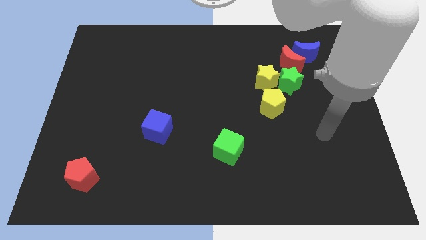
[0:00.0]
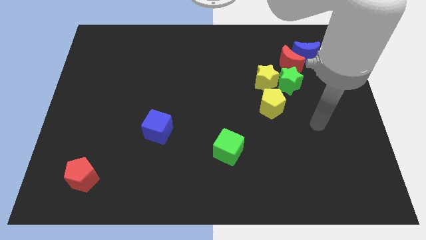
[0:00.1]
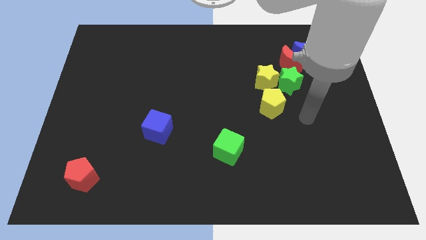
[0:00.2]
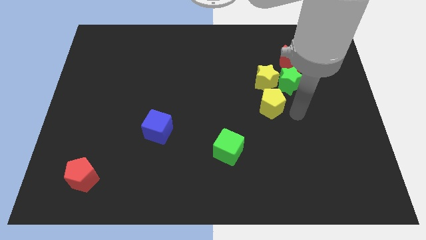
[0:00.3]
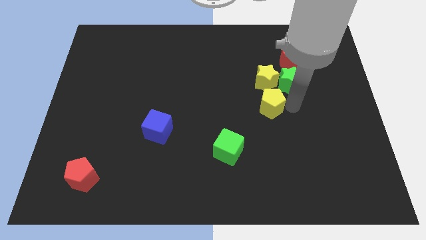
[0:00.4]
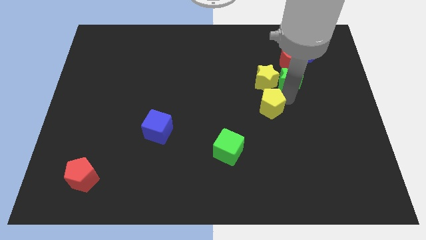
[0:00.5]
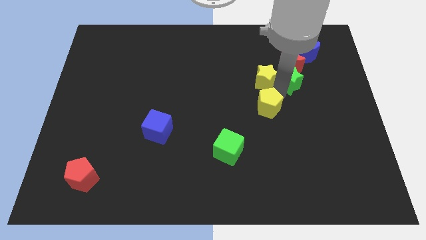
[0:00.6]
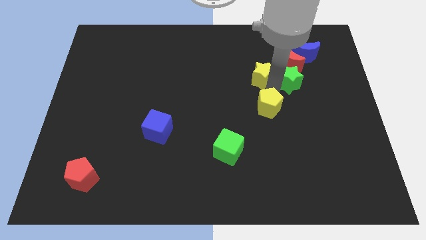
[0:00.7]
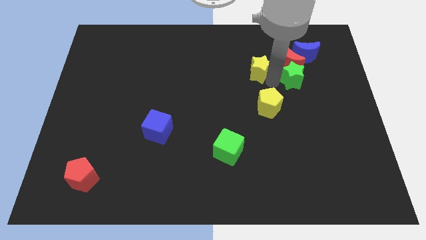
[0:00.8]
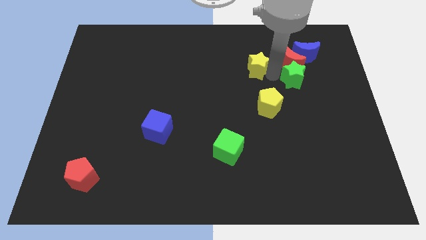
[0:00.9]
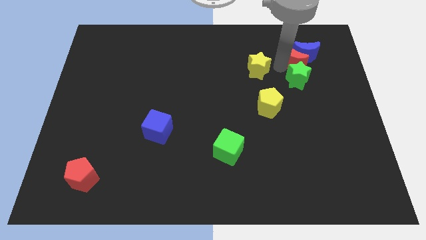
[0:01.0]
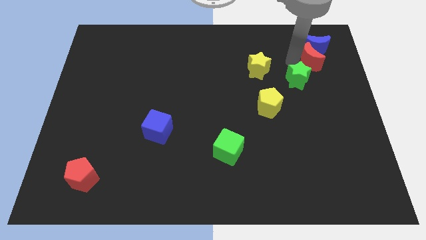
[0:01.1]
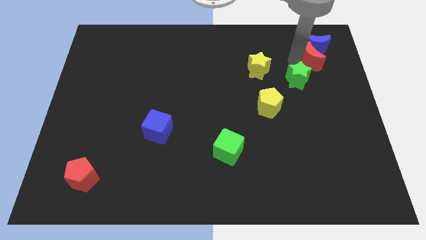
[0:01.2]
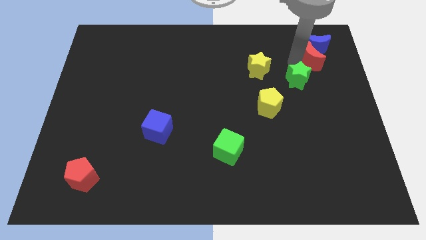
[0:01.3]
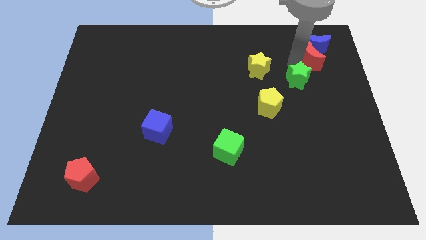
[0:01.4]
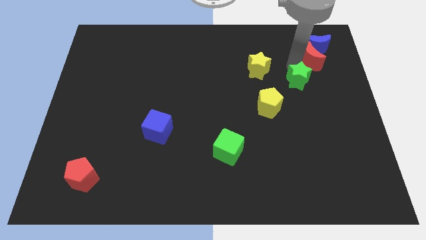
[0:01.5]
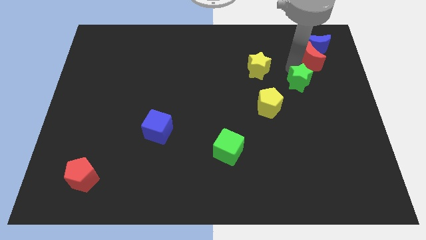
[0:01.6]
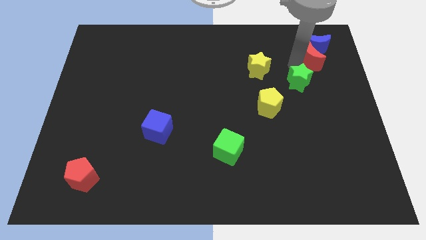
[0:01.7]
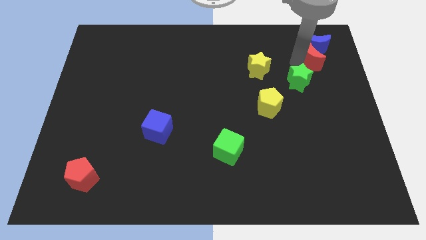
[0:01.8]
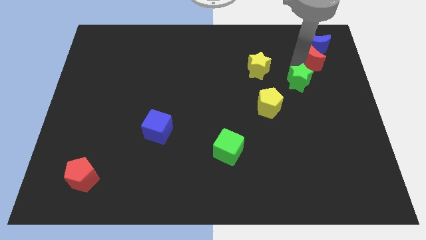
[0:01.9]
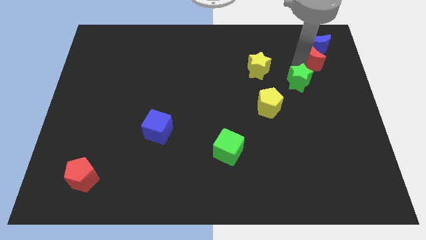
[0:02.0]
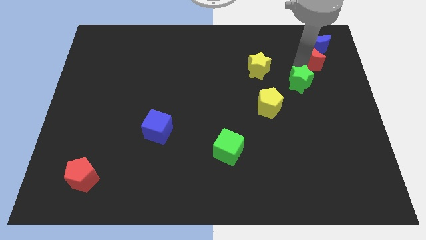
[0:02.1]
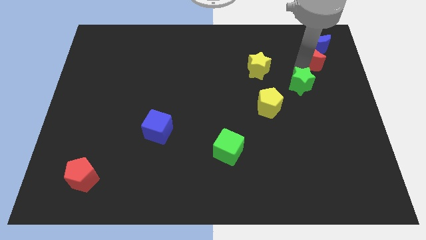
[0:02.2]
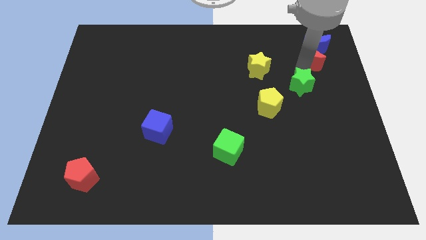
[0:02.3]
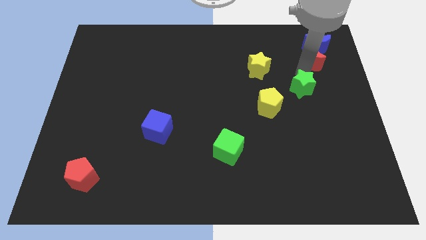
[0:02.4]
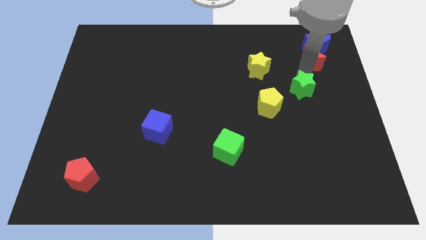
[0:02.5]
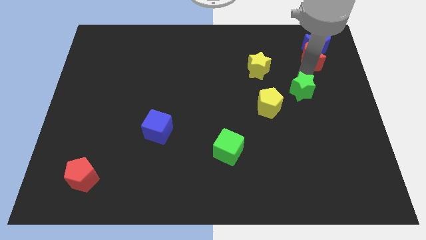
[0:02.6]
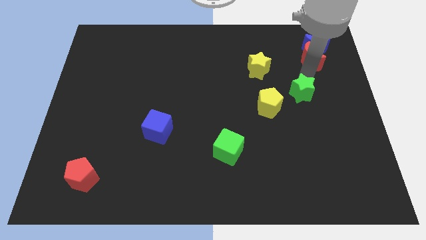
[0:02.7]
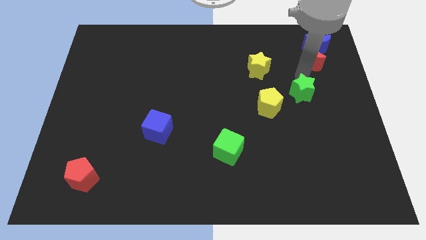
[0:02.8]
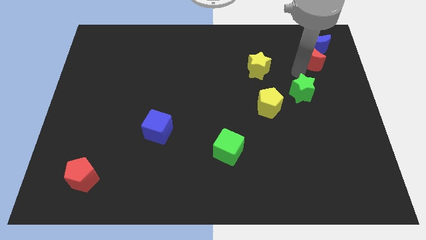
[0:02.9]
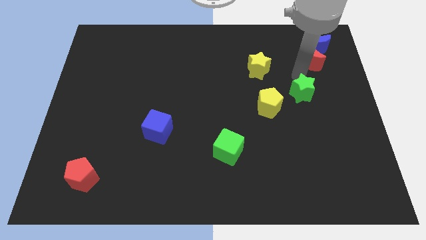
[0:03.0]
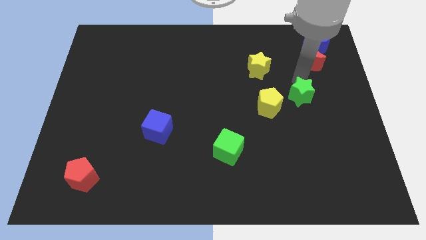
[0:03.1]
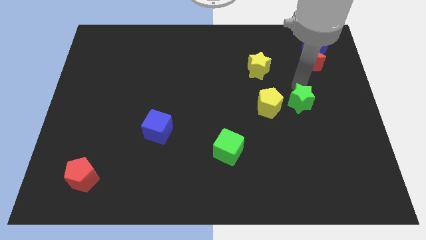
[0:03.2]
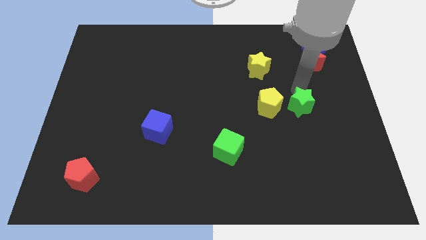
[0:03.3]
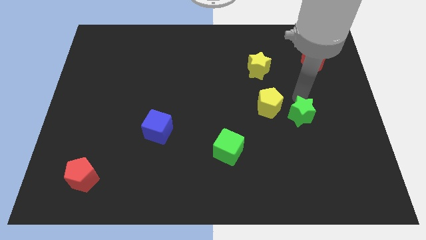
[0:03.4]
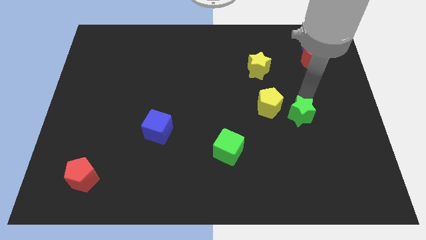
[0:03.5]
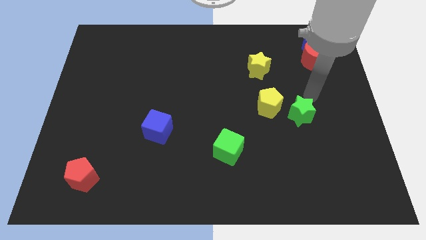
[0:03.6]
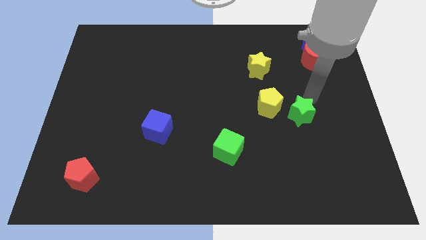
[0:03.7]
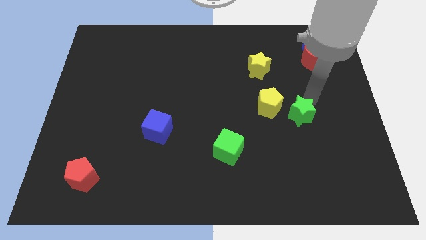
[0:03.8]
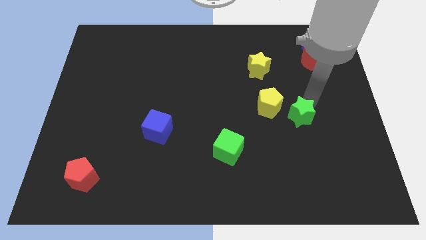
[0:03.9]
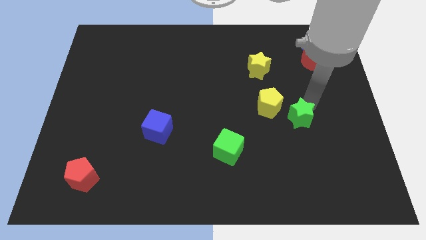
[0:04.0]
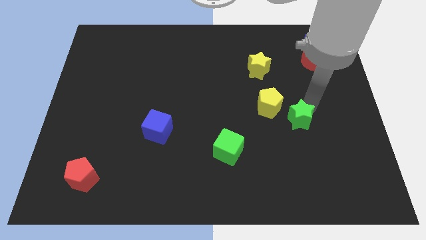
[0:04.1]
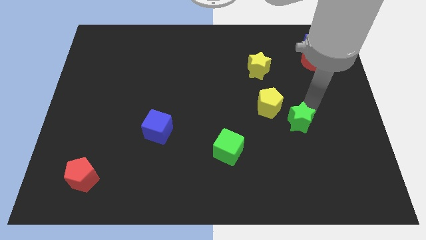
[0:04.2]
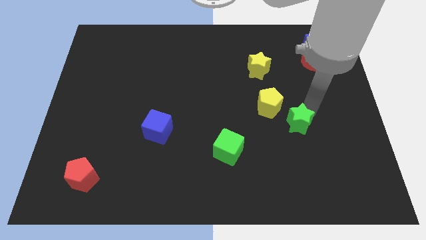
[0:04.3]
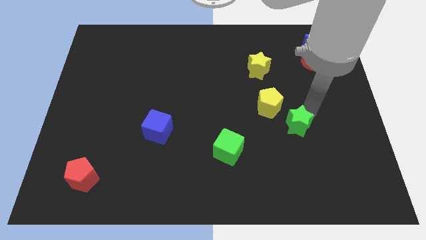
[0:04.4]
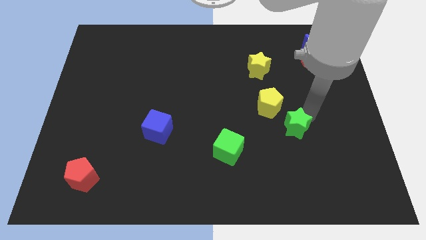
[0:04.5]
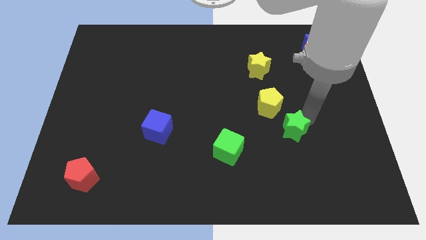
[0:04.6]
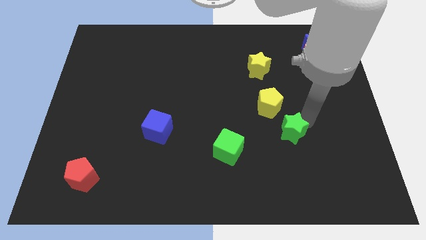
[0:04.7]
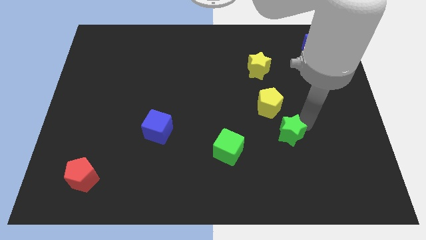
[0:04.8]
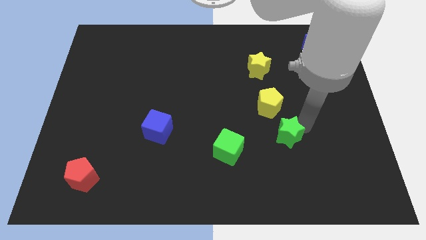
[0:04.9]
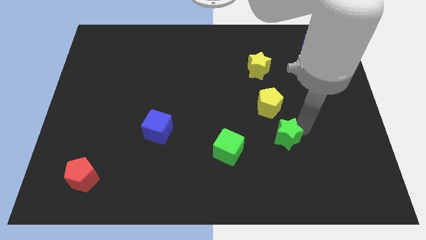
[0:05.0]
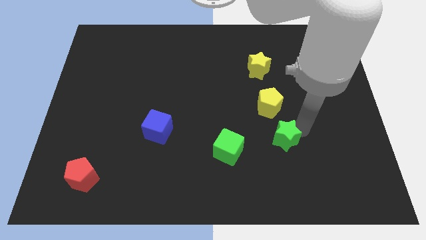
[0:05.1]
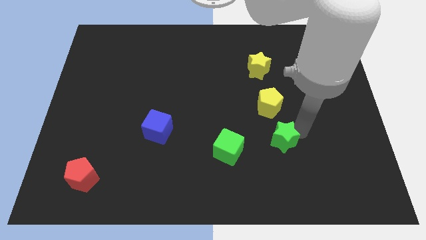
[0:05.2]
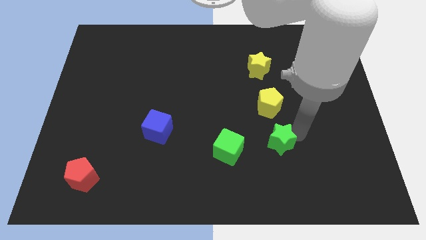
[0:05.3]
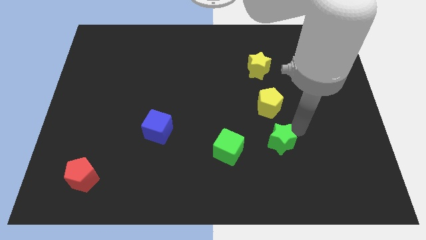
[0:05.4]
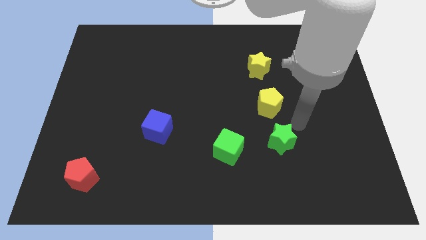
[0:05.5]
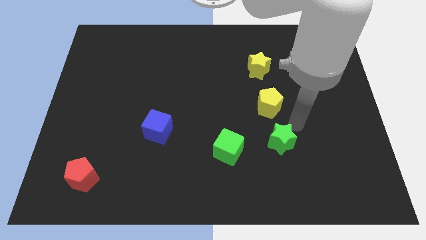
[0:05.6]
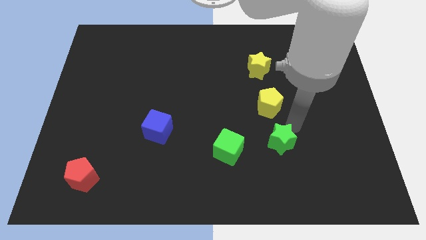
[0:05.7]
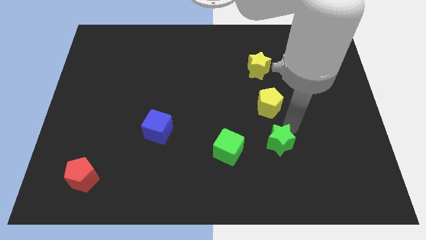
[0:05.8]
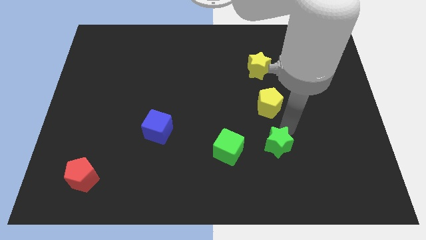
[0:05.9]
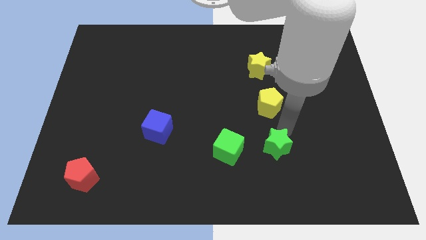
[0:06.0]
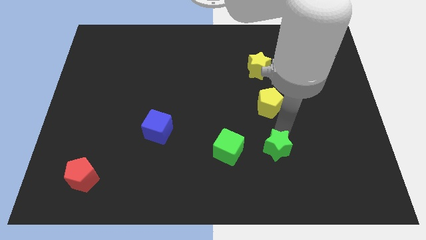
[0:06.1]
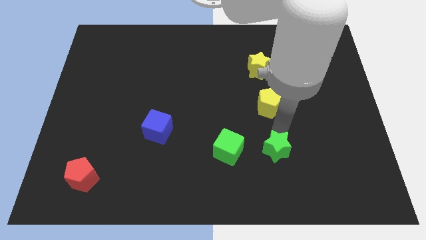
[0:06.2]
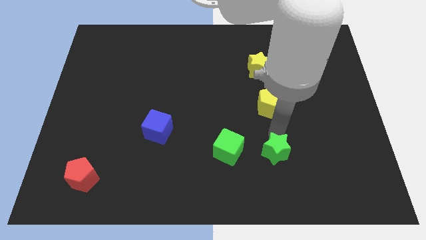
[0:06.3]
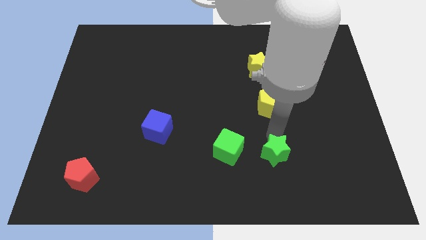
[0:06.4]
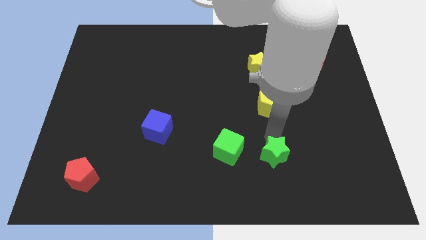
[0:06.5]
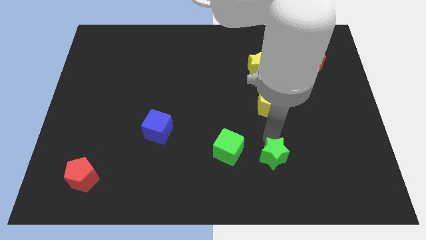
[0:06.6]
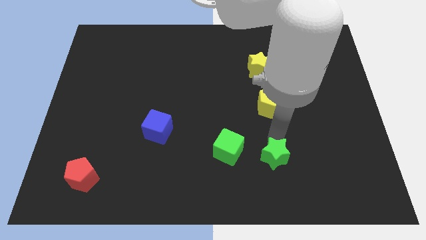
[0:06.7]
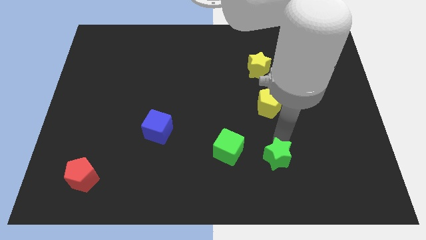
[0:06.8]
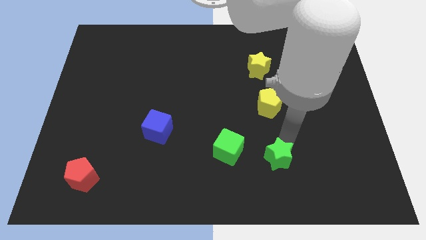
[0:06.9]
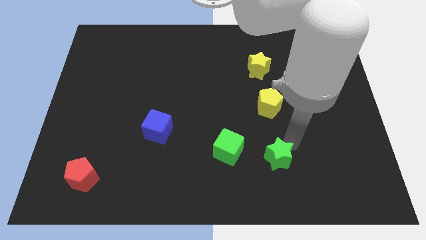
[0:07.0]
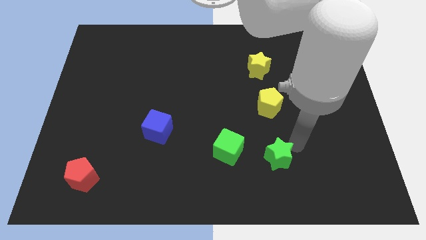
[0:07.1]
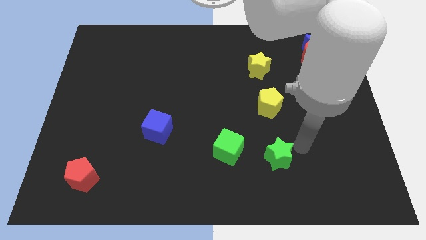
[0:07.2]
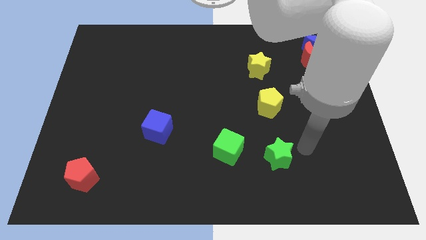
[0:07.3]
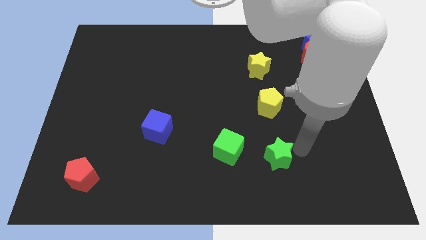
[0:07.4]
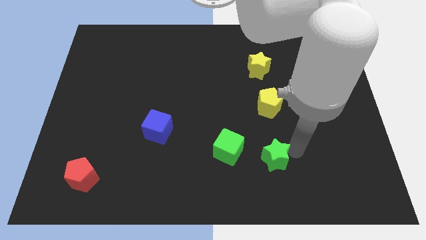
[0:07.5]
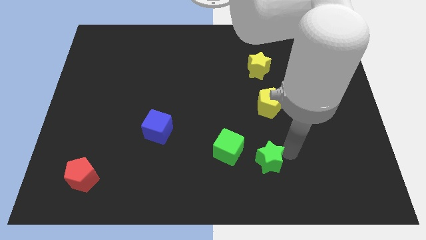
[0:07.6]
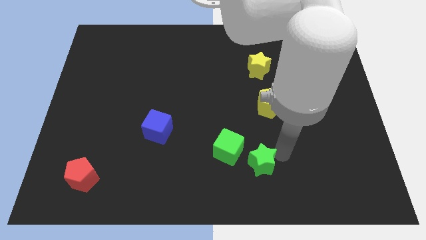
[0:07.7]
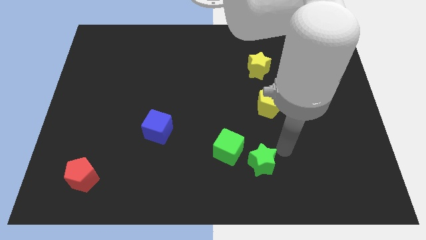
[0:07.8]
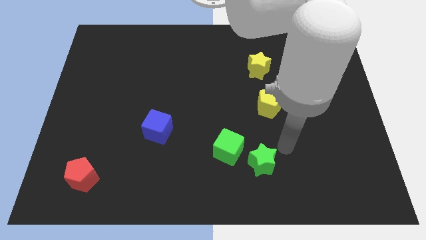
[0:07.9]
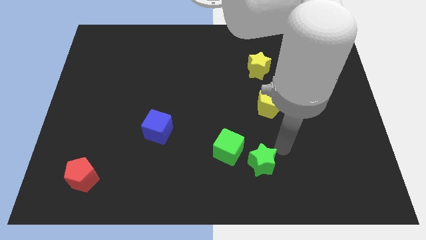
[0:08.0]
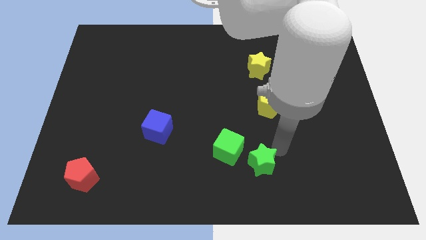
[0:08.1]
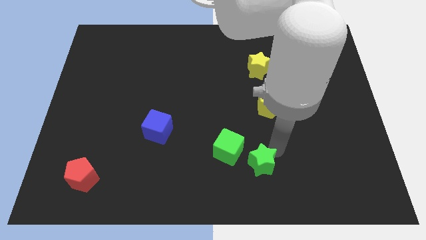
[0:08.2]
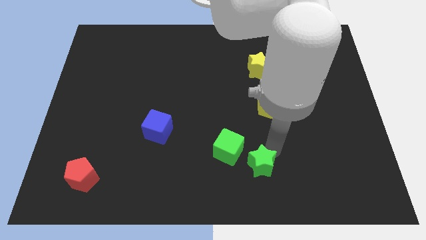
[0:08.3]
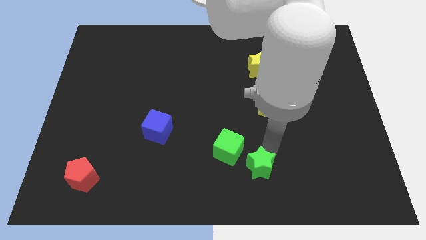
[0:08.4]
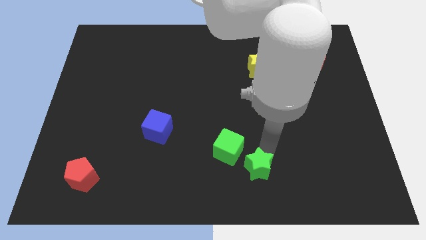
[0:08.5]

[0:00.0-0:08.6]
put the green star to the bottom side
